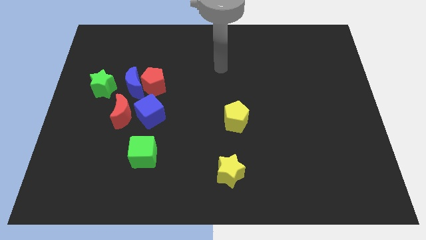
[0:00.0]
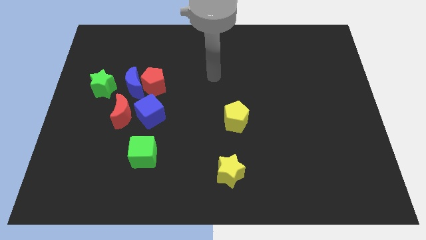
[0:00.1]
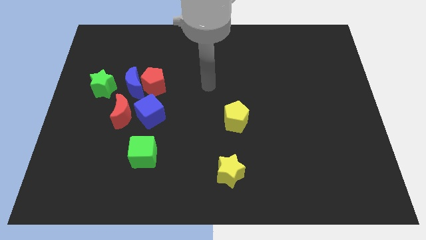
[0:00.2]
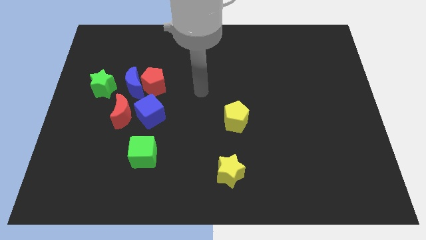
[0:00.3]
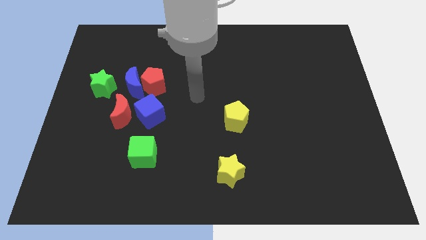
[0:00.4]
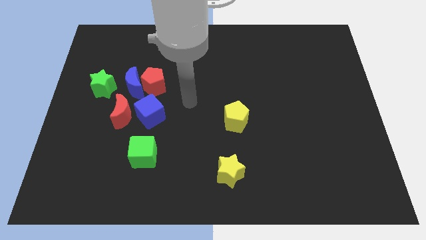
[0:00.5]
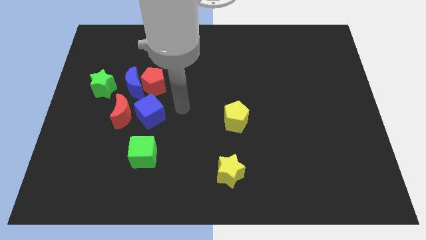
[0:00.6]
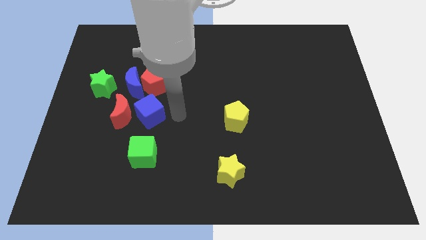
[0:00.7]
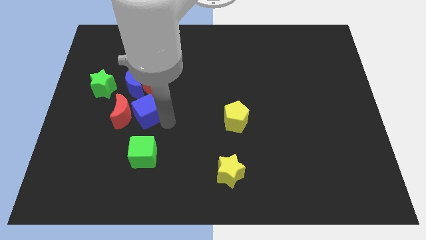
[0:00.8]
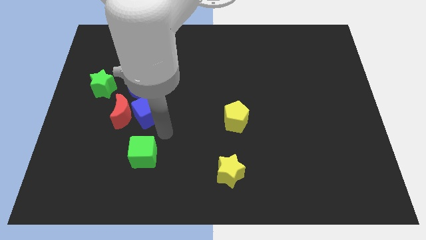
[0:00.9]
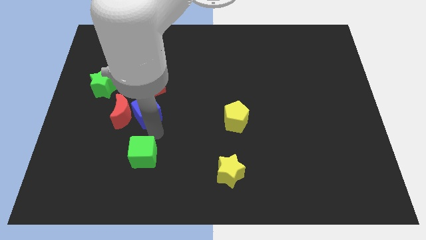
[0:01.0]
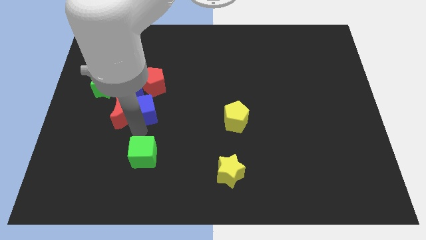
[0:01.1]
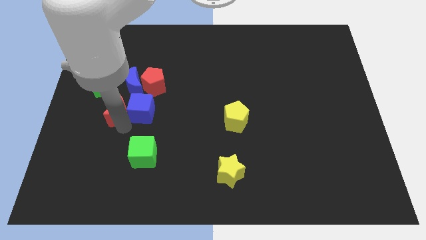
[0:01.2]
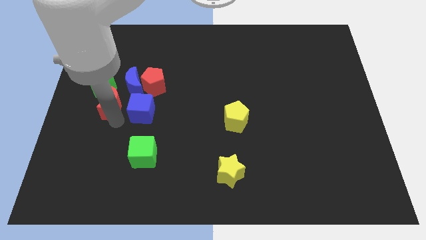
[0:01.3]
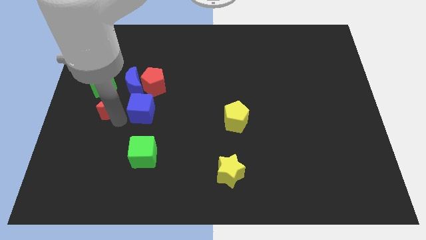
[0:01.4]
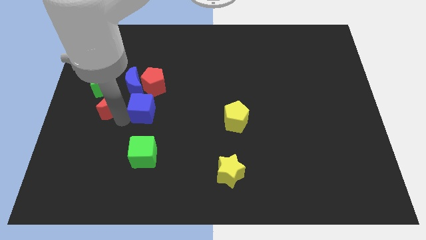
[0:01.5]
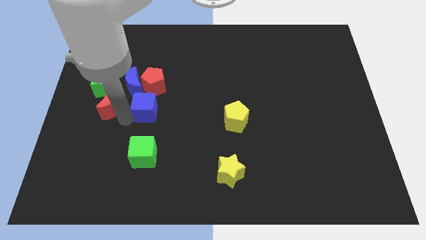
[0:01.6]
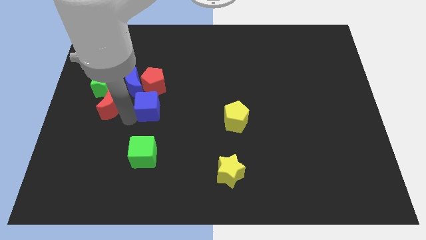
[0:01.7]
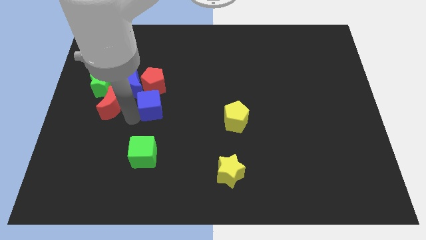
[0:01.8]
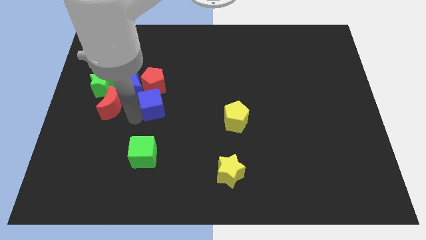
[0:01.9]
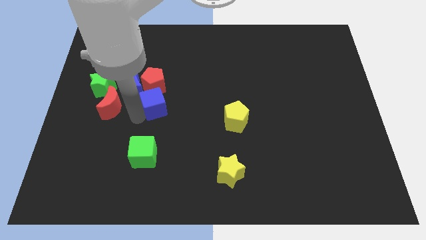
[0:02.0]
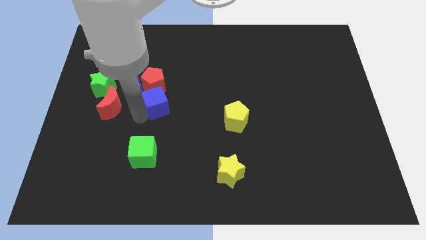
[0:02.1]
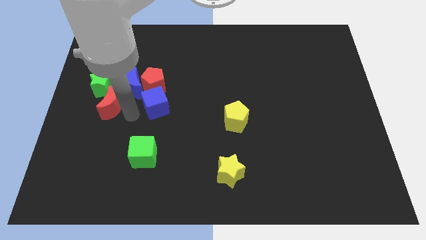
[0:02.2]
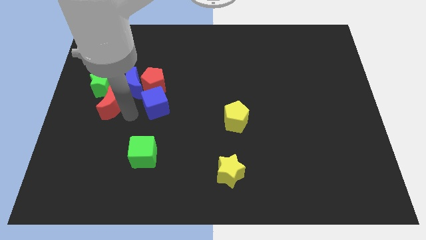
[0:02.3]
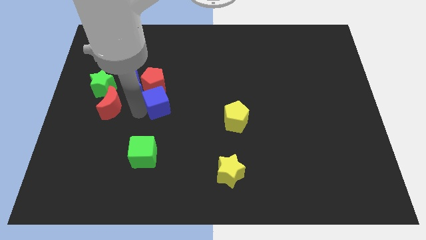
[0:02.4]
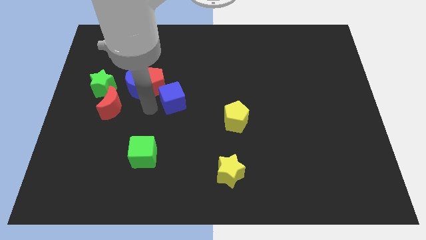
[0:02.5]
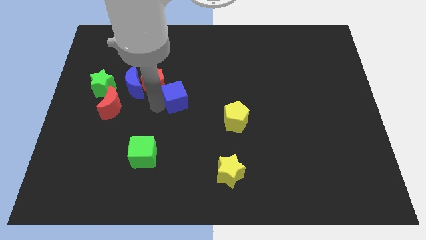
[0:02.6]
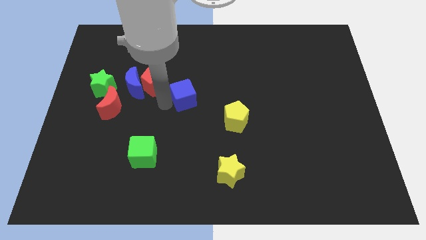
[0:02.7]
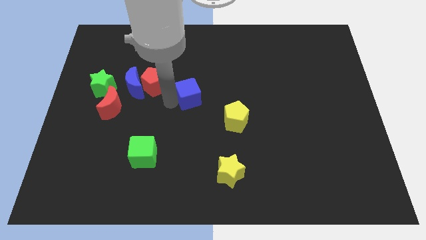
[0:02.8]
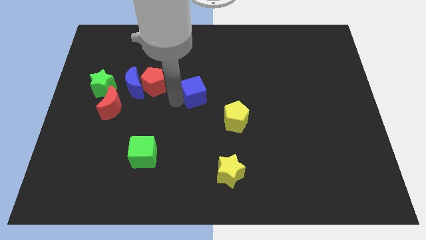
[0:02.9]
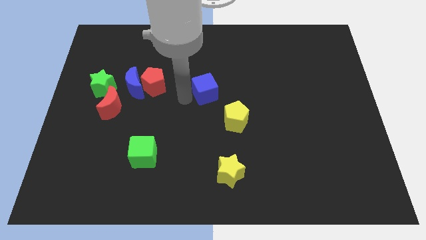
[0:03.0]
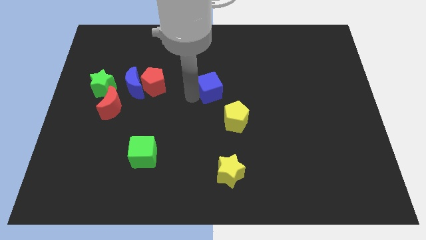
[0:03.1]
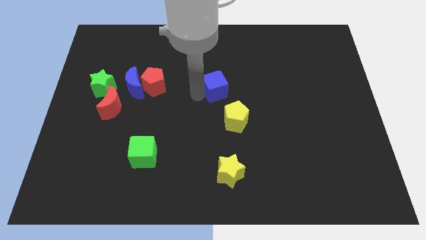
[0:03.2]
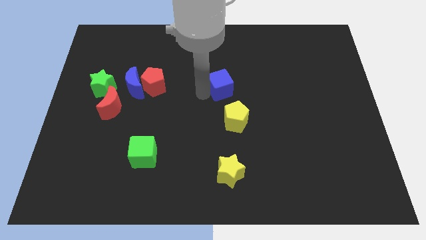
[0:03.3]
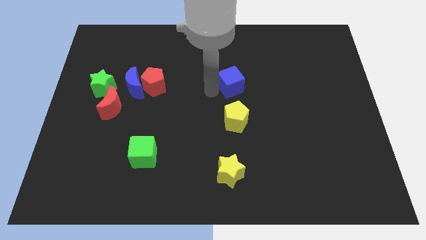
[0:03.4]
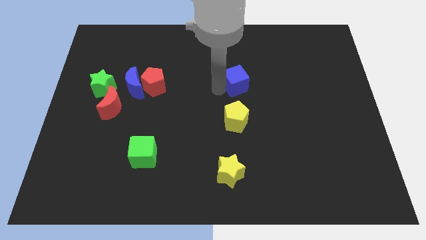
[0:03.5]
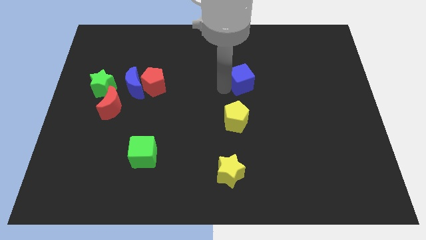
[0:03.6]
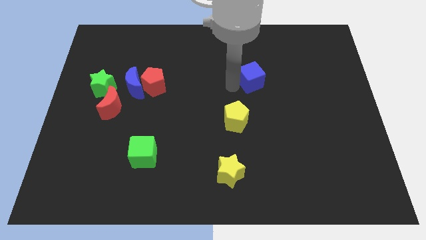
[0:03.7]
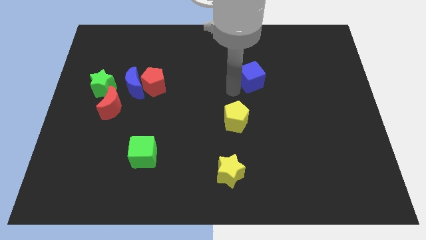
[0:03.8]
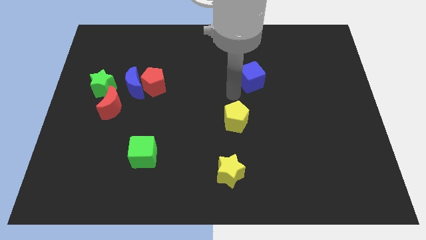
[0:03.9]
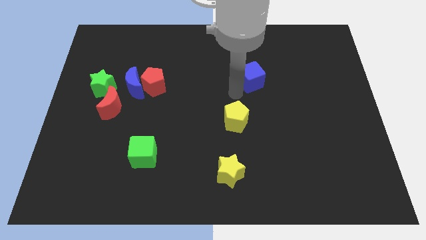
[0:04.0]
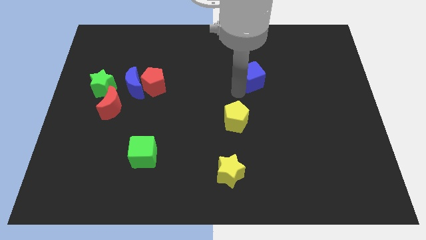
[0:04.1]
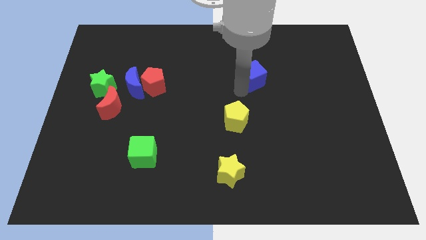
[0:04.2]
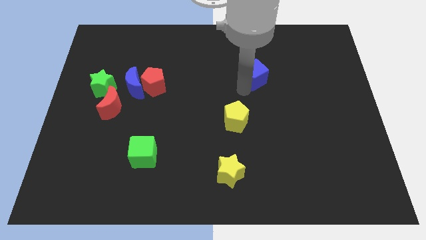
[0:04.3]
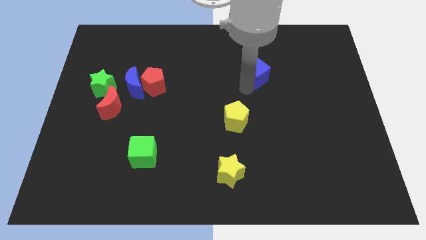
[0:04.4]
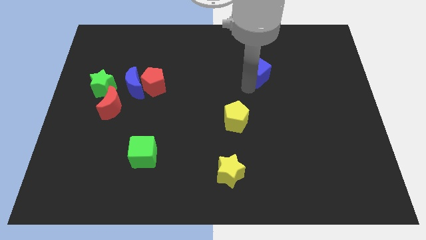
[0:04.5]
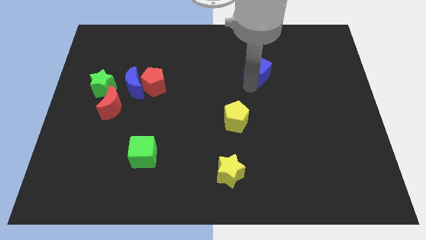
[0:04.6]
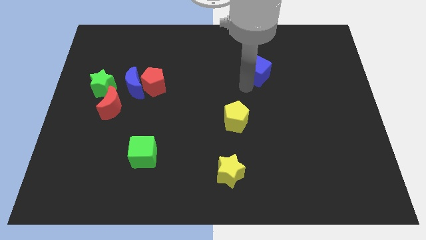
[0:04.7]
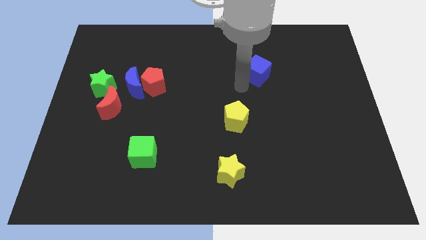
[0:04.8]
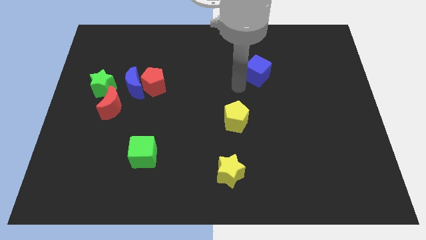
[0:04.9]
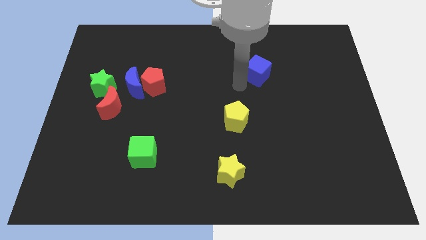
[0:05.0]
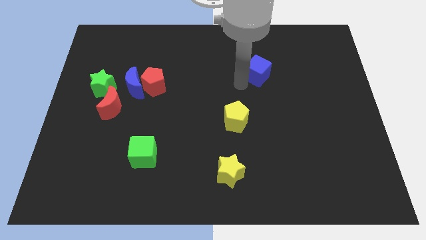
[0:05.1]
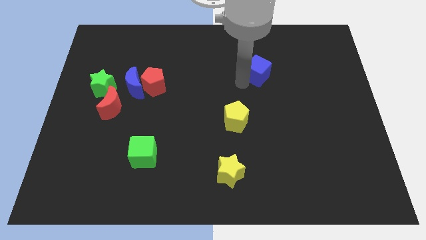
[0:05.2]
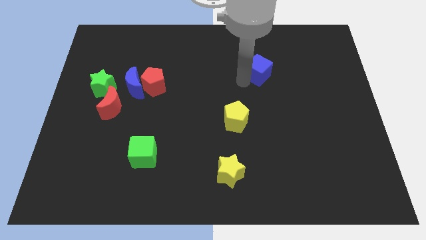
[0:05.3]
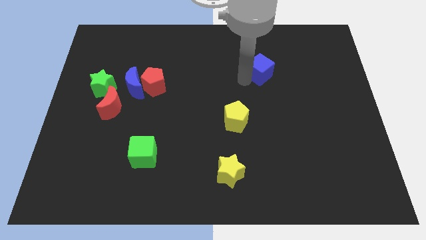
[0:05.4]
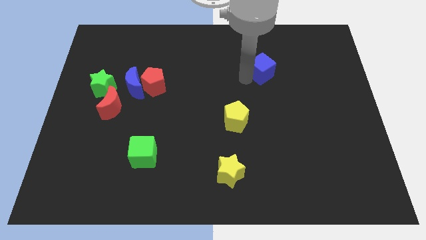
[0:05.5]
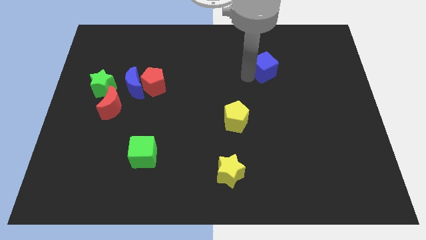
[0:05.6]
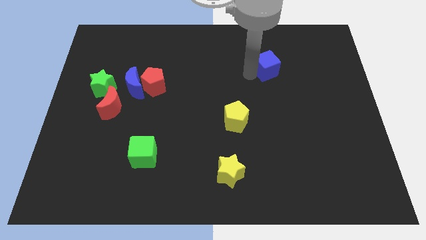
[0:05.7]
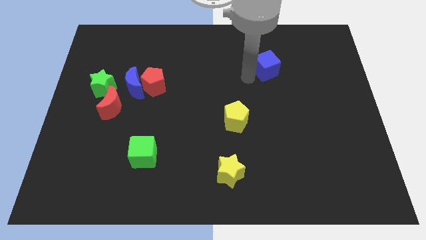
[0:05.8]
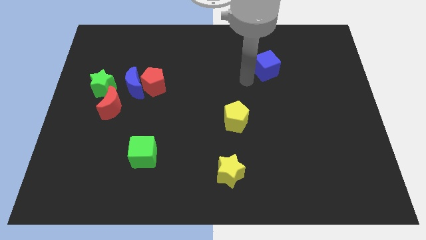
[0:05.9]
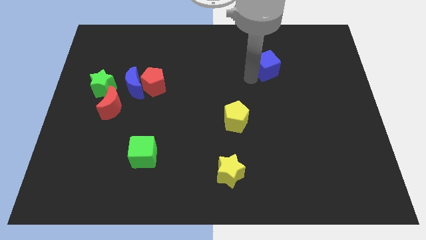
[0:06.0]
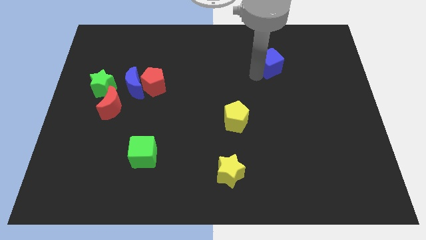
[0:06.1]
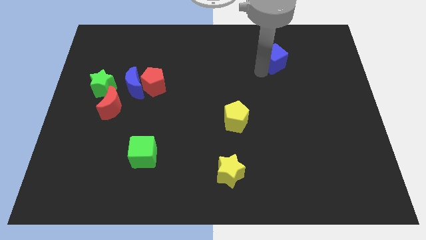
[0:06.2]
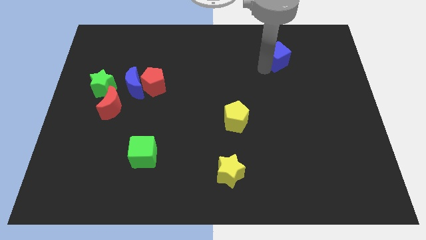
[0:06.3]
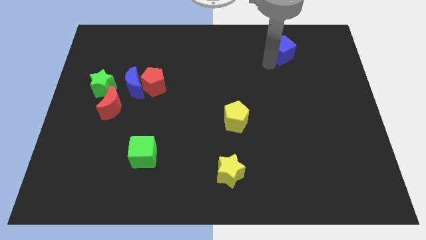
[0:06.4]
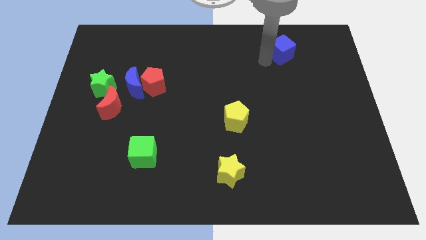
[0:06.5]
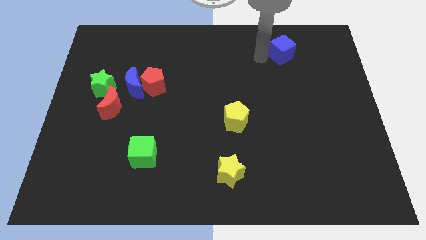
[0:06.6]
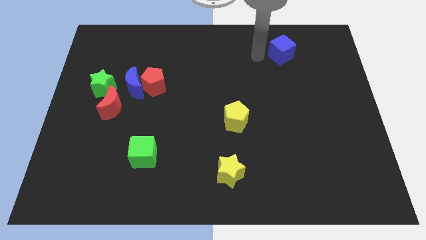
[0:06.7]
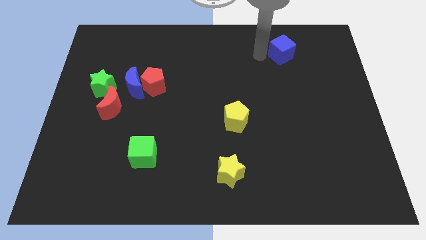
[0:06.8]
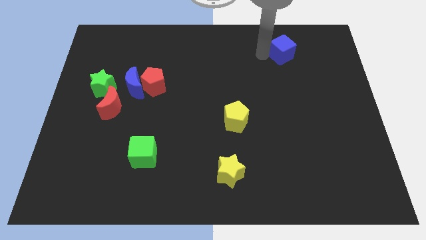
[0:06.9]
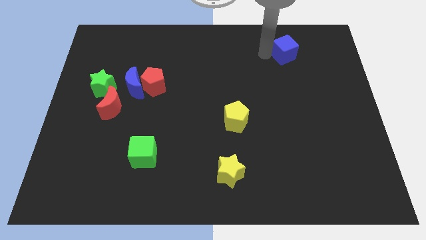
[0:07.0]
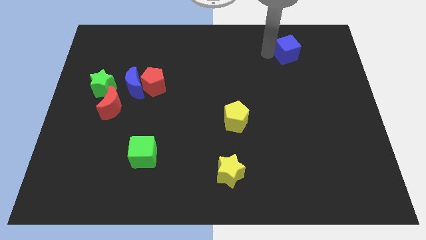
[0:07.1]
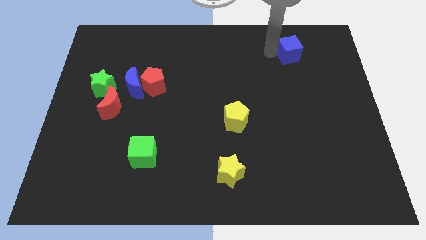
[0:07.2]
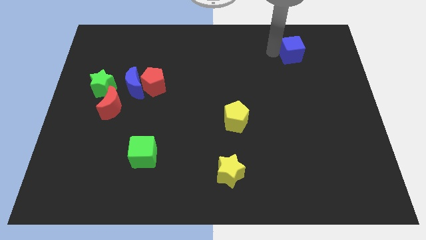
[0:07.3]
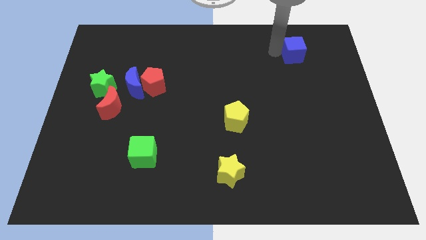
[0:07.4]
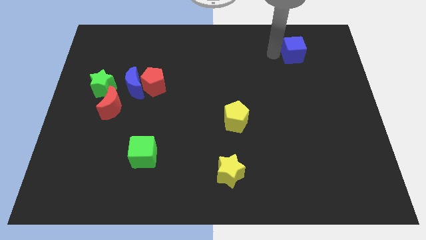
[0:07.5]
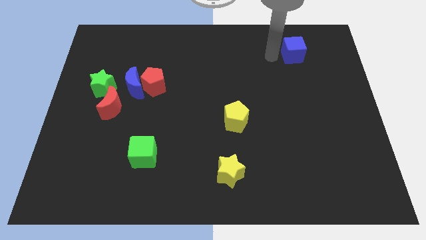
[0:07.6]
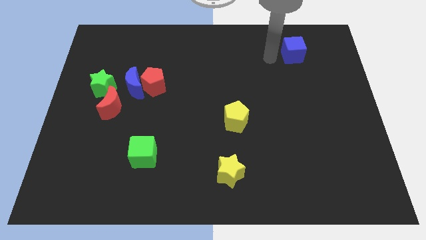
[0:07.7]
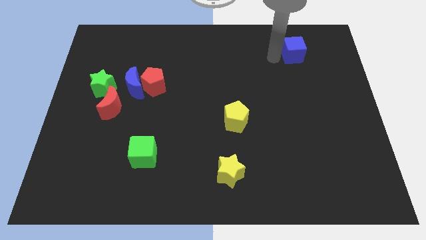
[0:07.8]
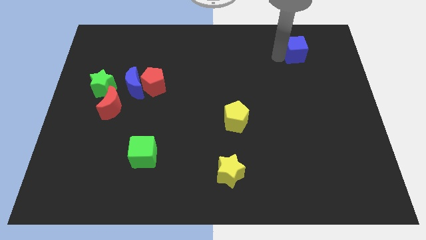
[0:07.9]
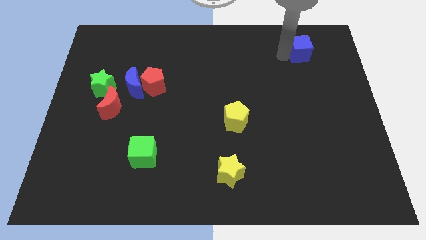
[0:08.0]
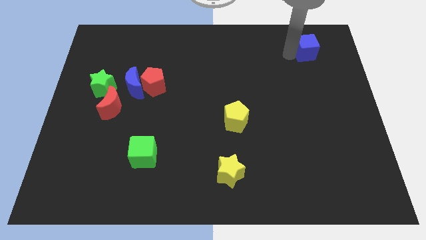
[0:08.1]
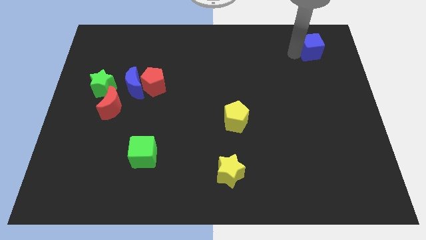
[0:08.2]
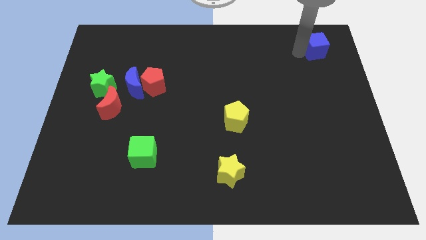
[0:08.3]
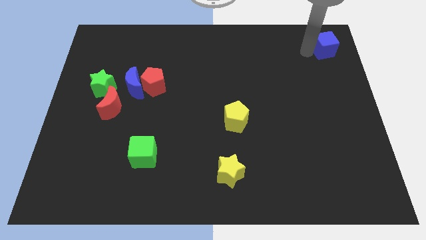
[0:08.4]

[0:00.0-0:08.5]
put the blue cube to the top right corner
